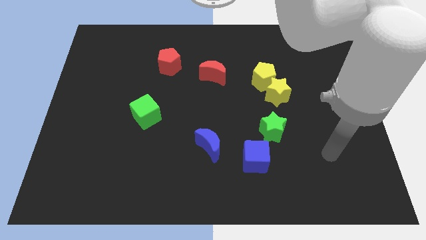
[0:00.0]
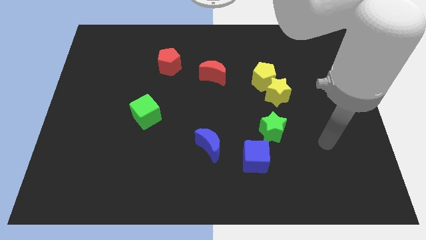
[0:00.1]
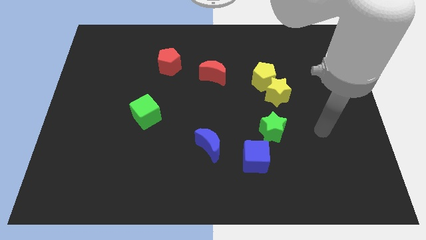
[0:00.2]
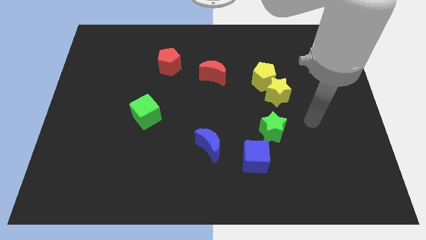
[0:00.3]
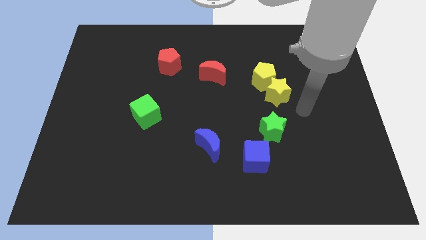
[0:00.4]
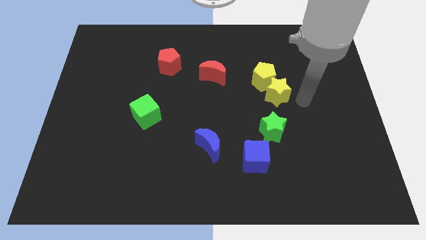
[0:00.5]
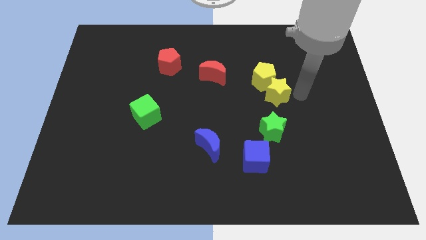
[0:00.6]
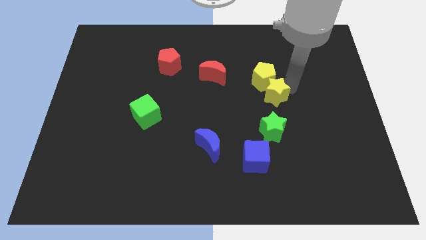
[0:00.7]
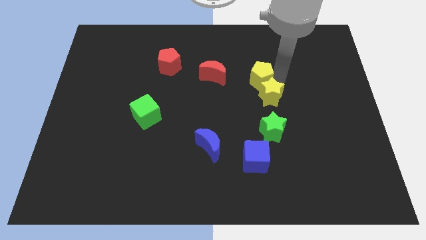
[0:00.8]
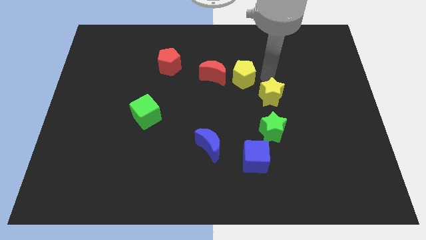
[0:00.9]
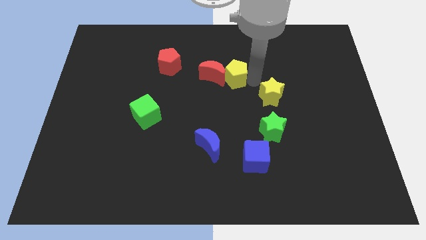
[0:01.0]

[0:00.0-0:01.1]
separate the yellow star from the yellow pentagon

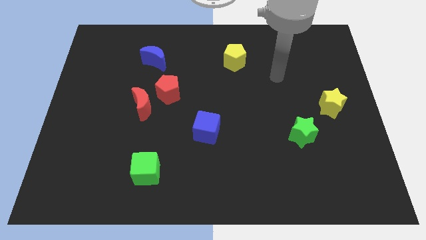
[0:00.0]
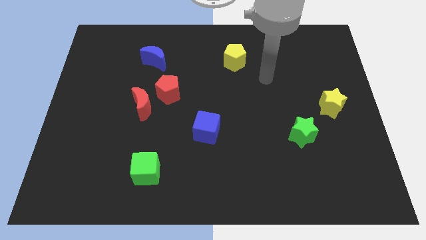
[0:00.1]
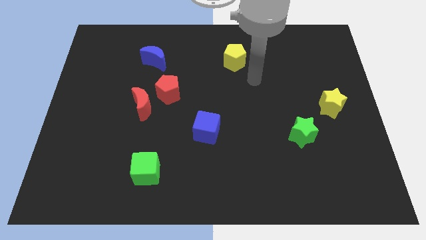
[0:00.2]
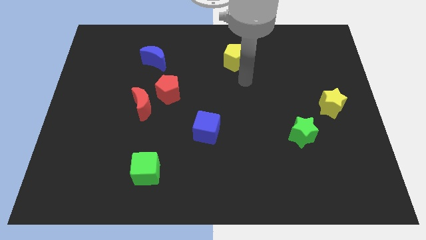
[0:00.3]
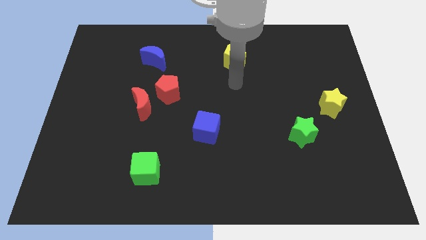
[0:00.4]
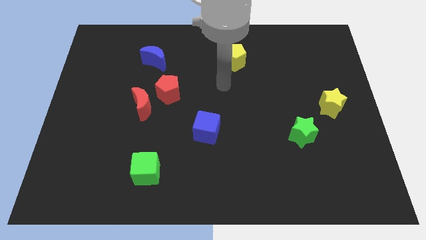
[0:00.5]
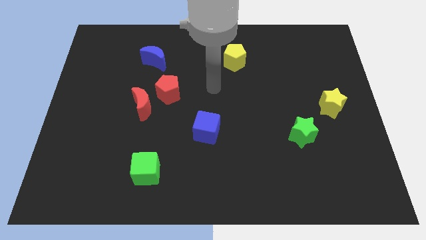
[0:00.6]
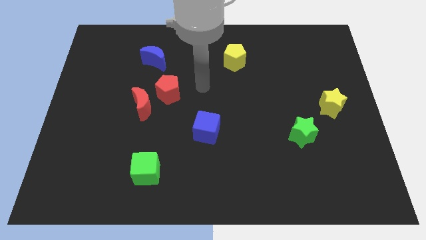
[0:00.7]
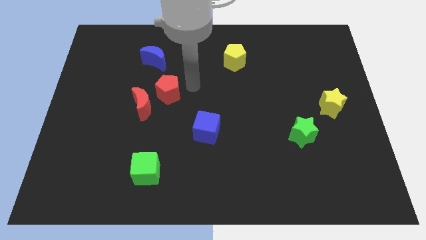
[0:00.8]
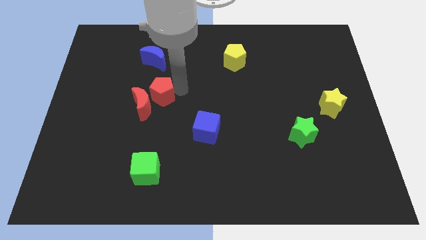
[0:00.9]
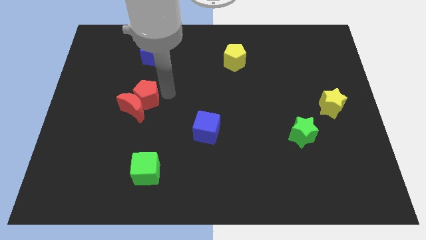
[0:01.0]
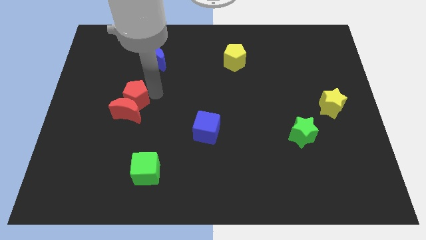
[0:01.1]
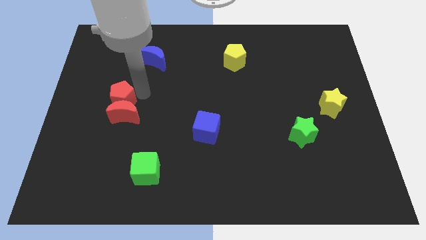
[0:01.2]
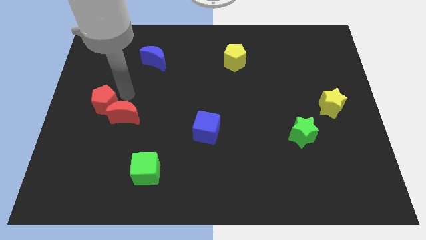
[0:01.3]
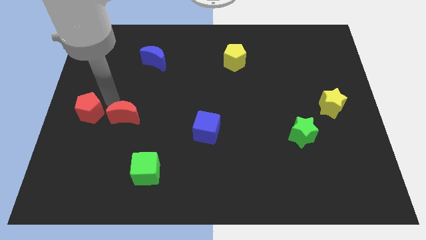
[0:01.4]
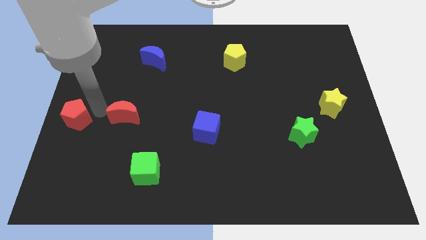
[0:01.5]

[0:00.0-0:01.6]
separate the red moon from the red pentagon

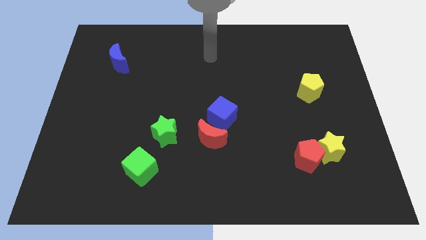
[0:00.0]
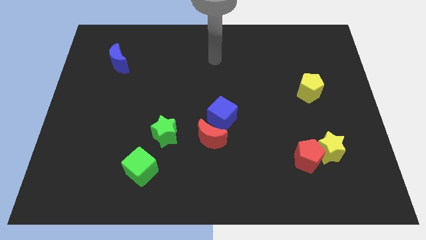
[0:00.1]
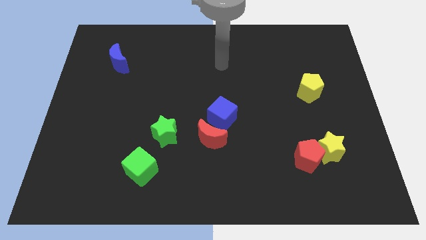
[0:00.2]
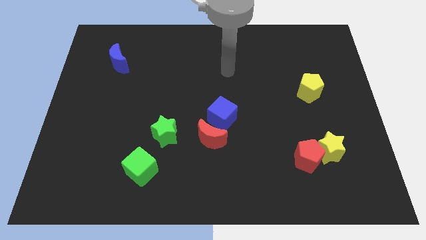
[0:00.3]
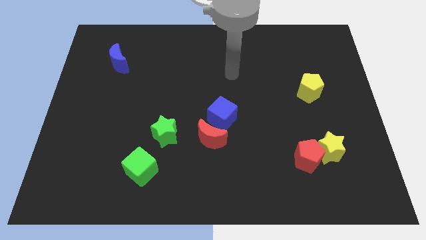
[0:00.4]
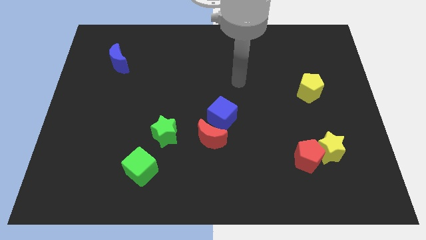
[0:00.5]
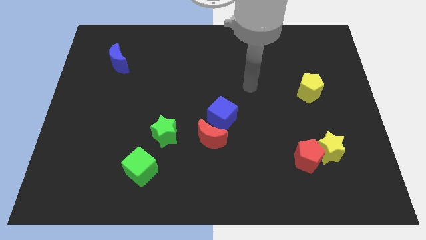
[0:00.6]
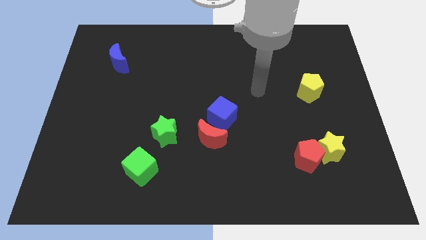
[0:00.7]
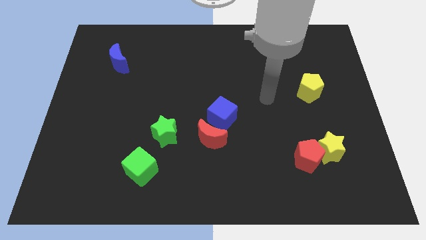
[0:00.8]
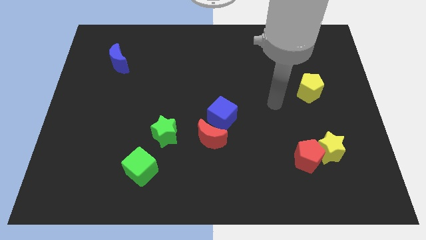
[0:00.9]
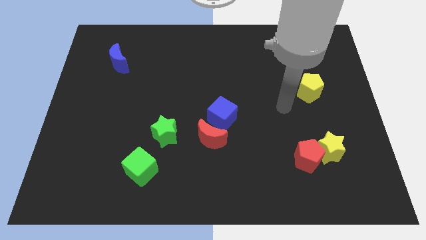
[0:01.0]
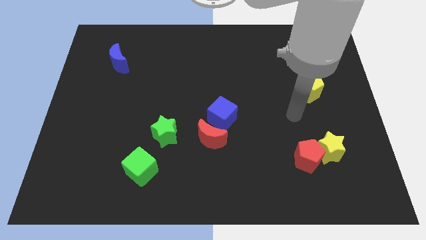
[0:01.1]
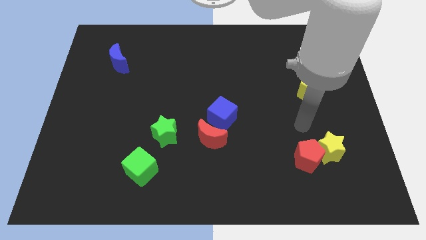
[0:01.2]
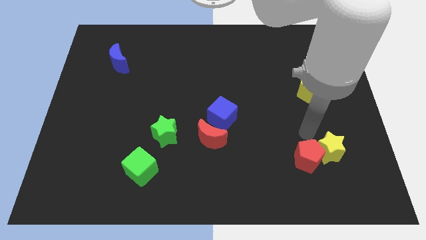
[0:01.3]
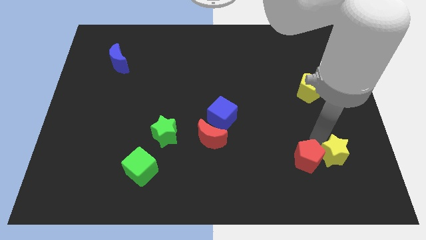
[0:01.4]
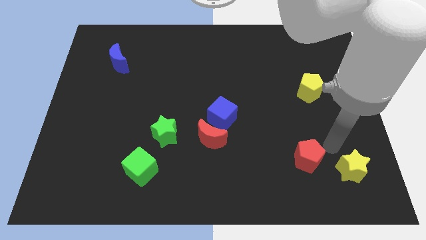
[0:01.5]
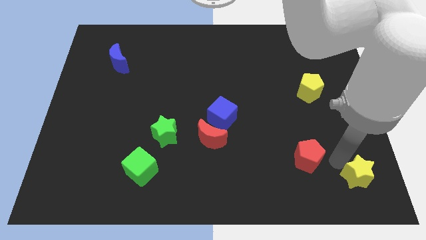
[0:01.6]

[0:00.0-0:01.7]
move the red pentagon away from the yellow star

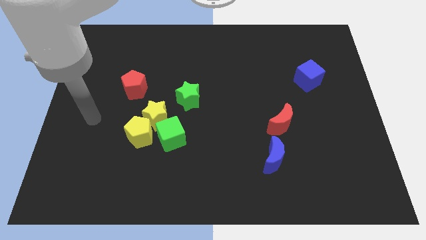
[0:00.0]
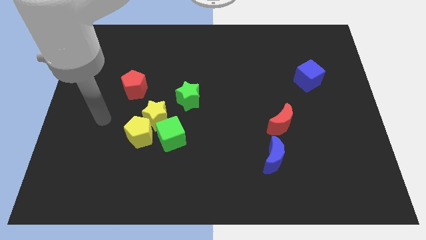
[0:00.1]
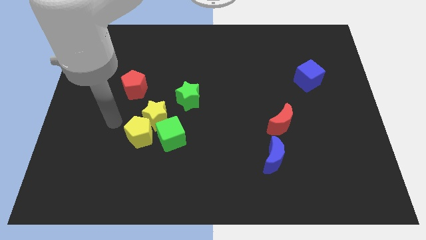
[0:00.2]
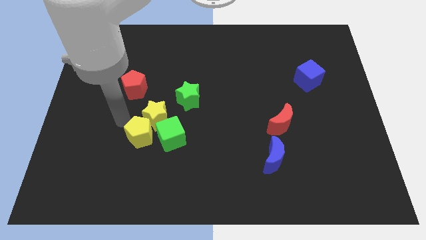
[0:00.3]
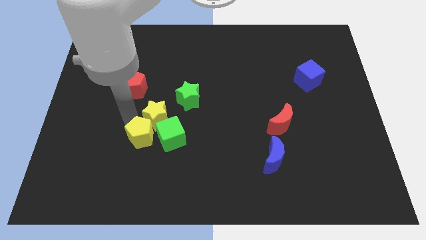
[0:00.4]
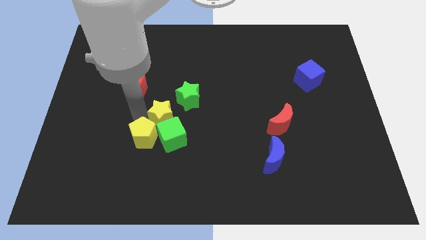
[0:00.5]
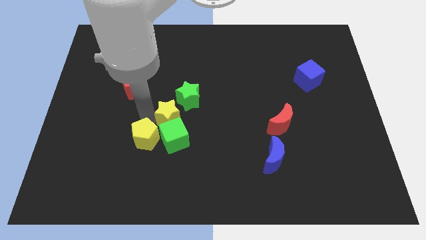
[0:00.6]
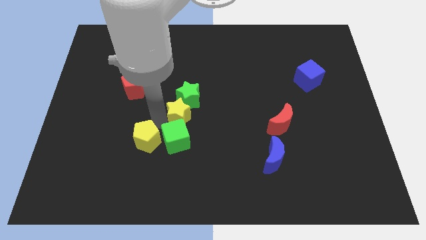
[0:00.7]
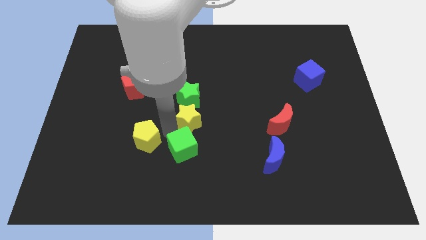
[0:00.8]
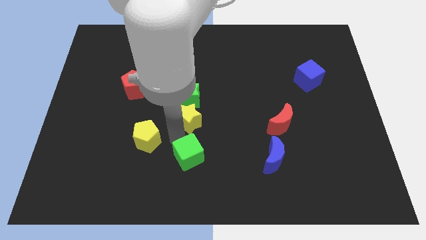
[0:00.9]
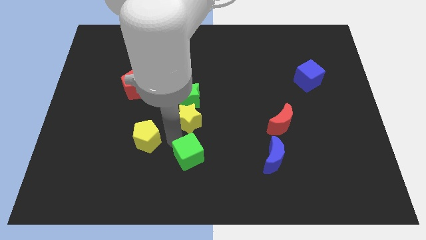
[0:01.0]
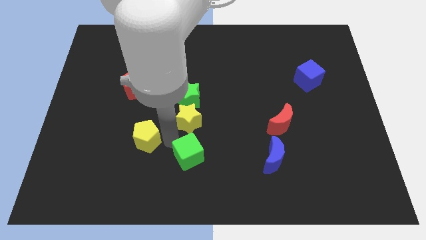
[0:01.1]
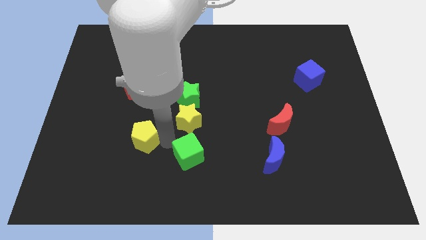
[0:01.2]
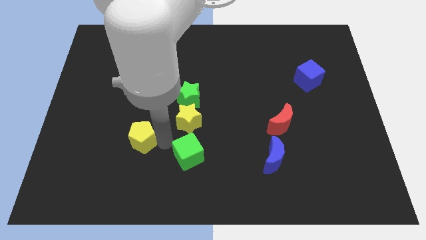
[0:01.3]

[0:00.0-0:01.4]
pull the yellow pentagon apart from the yellow star and green cube

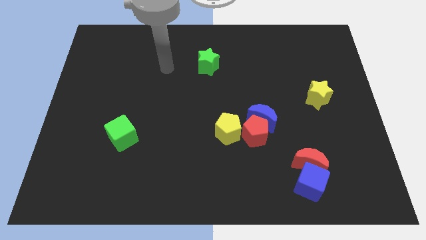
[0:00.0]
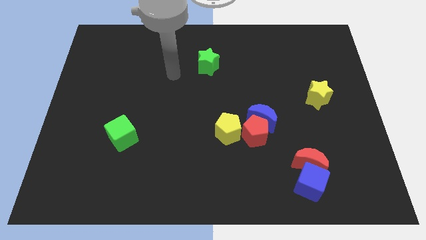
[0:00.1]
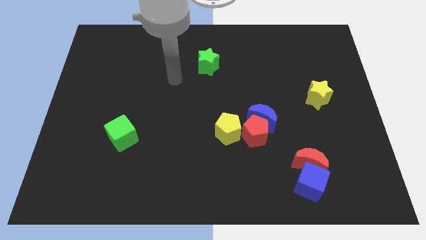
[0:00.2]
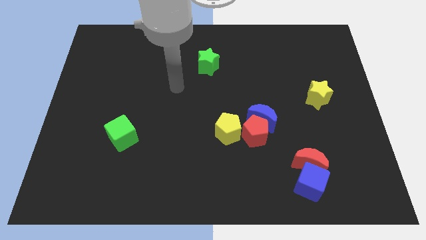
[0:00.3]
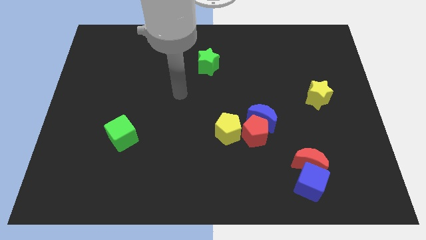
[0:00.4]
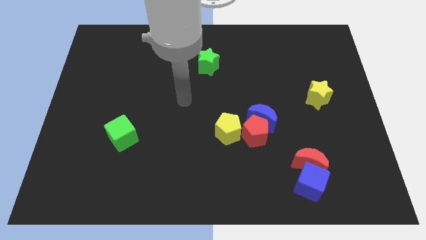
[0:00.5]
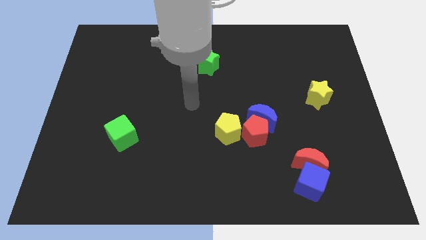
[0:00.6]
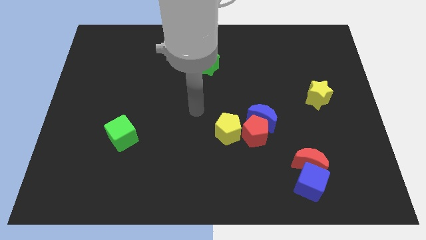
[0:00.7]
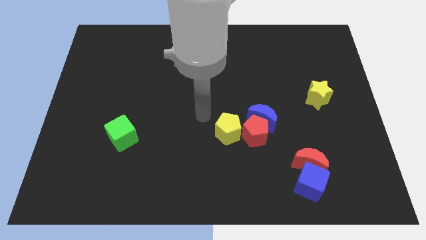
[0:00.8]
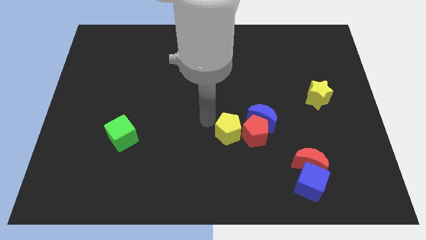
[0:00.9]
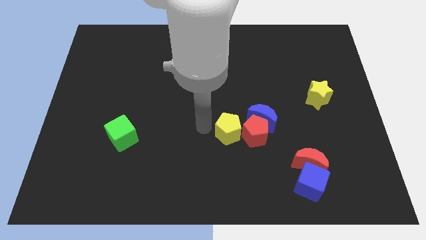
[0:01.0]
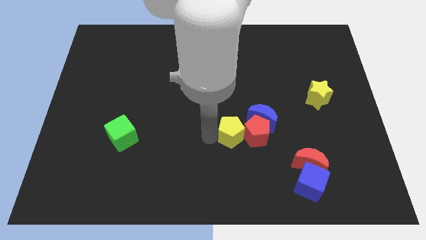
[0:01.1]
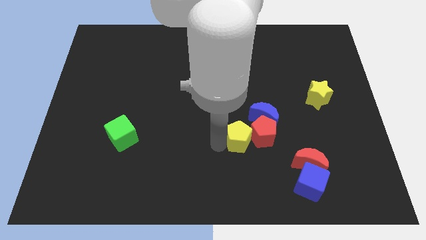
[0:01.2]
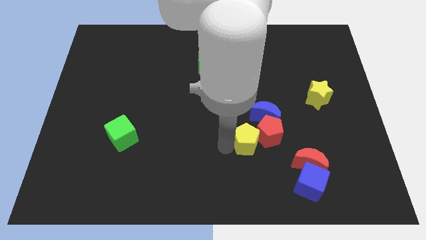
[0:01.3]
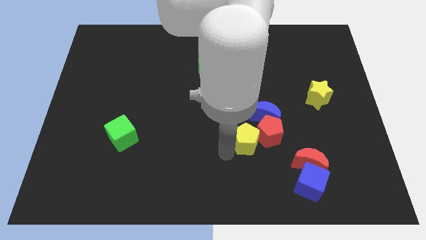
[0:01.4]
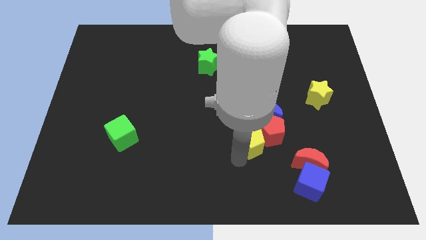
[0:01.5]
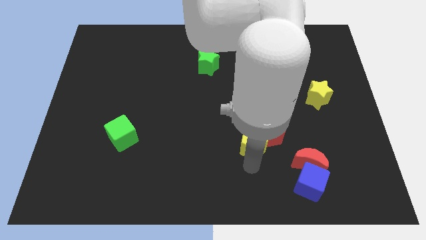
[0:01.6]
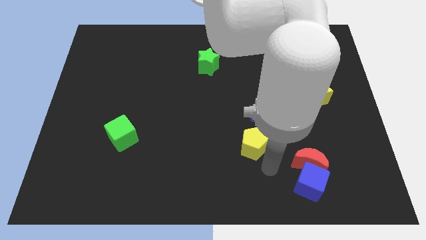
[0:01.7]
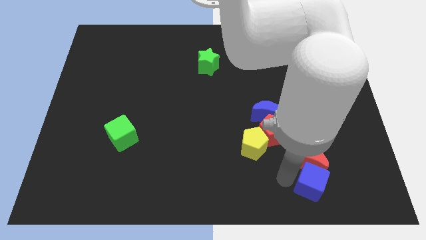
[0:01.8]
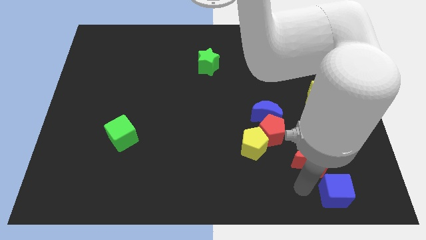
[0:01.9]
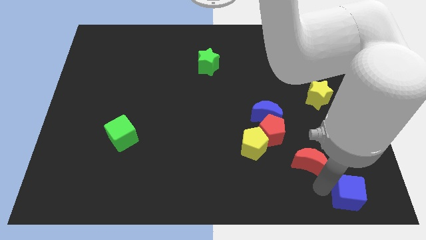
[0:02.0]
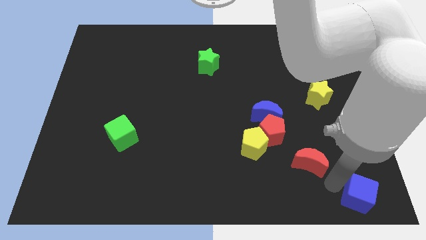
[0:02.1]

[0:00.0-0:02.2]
pull the red moon apart from the blue cube

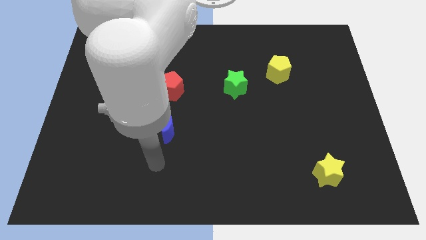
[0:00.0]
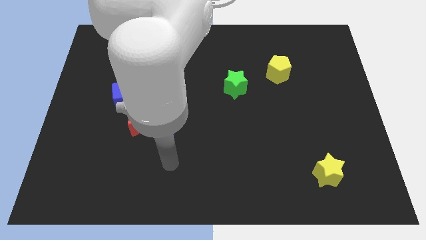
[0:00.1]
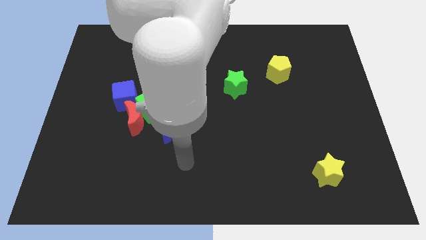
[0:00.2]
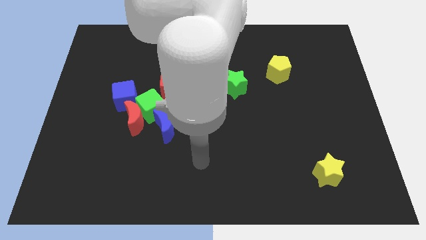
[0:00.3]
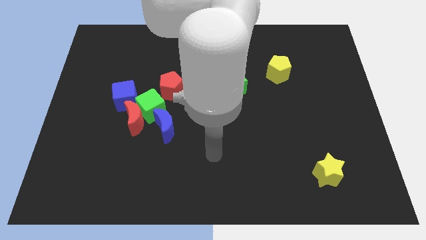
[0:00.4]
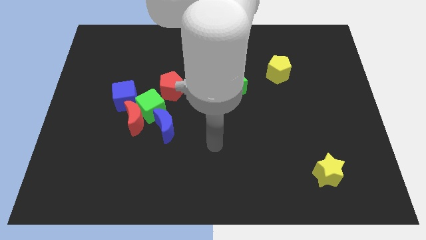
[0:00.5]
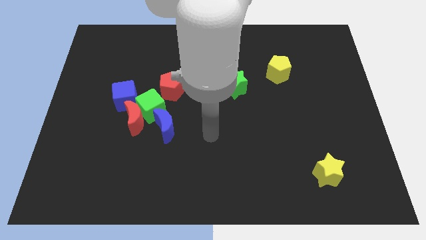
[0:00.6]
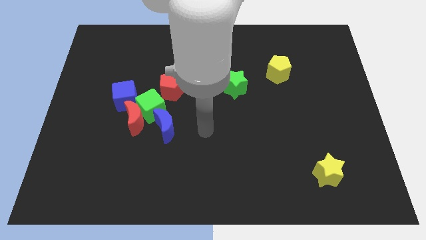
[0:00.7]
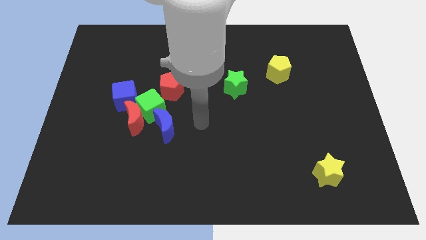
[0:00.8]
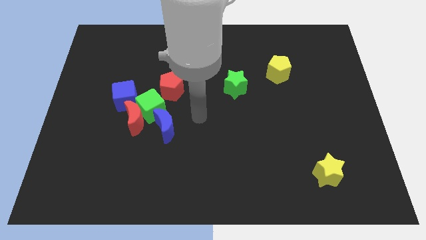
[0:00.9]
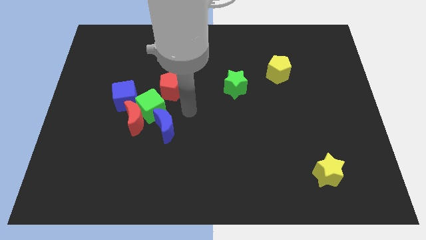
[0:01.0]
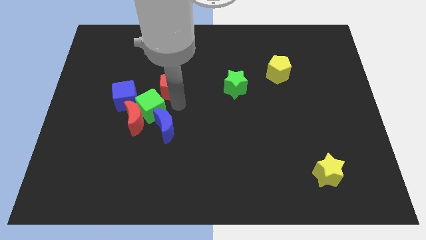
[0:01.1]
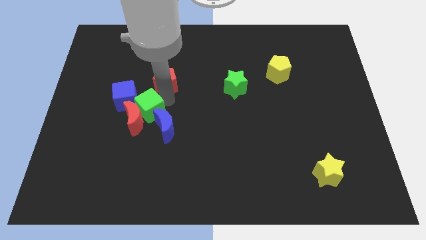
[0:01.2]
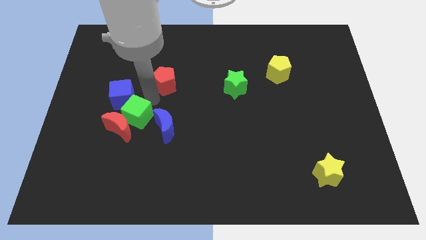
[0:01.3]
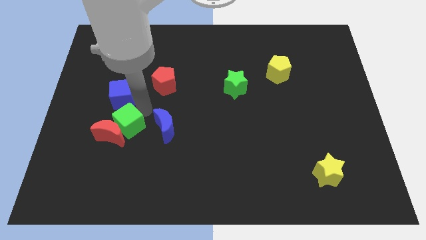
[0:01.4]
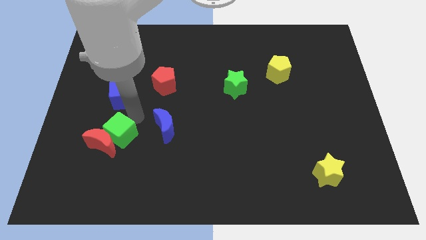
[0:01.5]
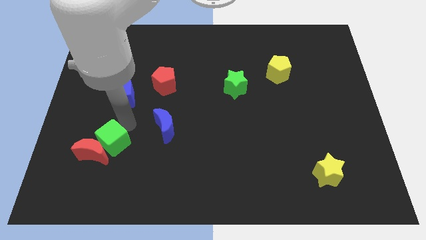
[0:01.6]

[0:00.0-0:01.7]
move the red moon away from the green cube, blue cube, and blue moon
